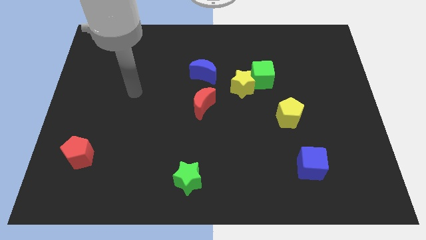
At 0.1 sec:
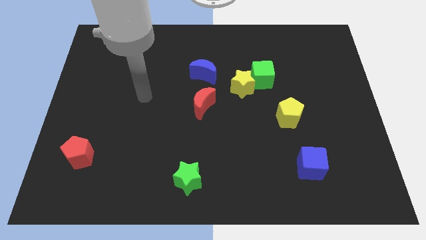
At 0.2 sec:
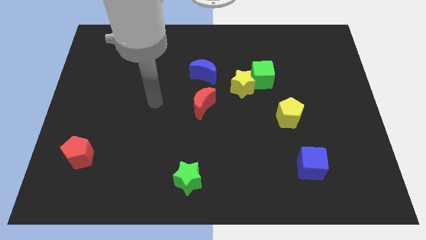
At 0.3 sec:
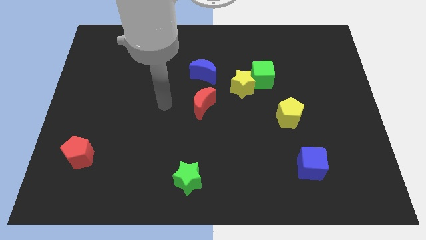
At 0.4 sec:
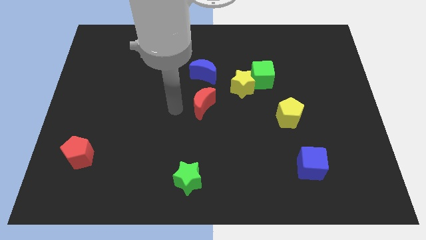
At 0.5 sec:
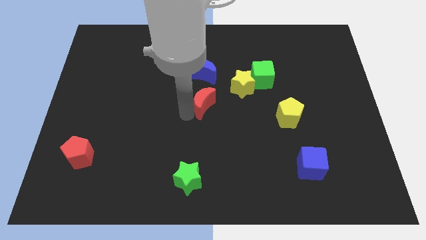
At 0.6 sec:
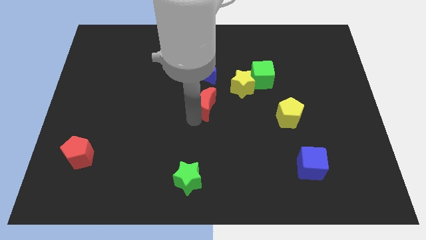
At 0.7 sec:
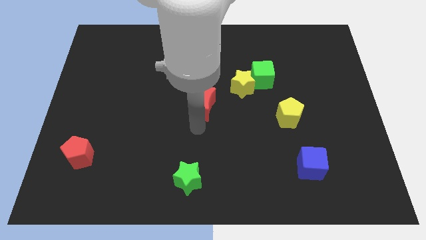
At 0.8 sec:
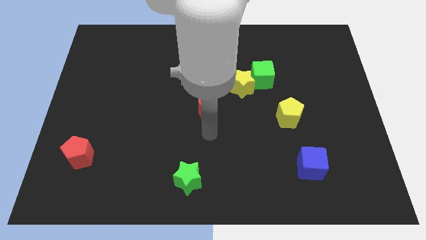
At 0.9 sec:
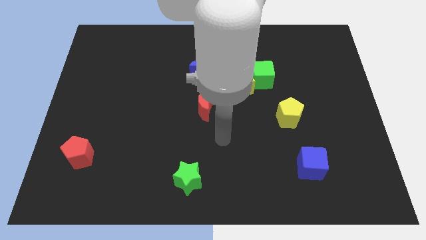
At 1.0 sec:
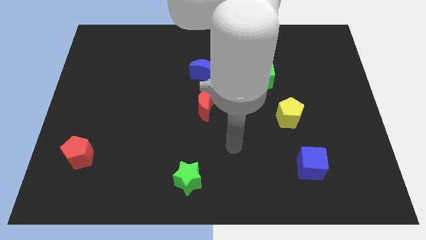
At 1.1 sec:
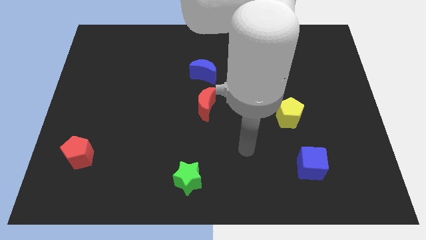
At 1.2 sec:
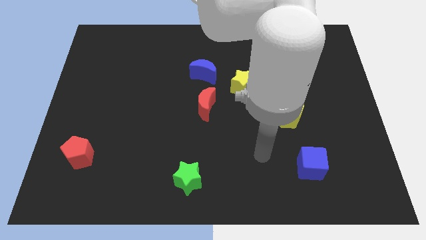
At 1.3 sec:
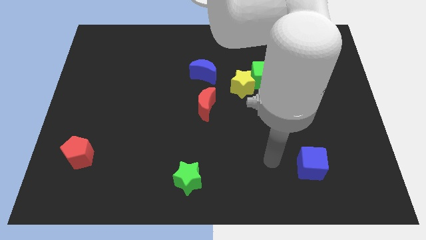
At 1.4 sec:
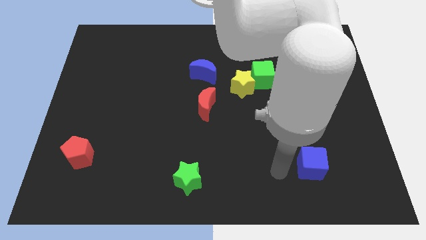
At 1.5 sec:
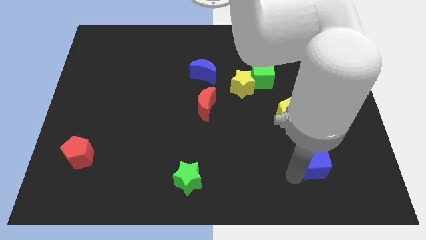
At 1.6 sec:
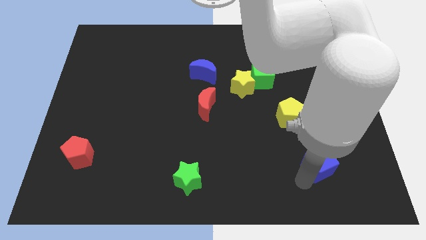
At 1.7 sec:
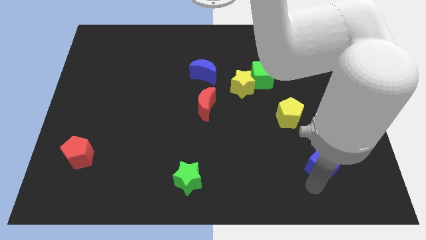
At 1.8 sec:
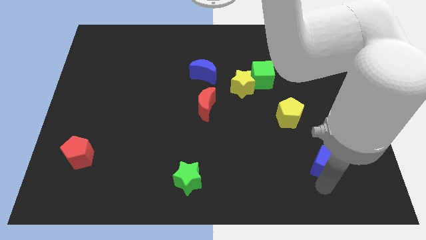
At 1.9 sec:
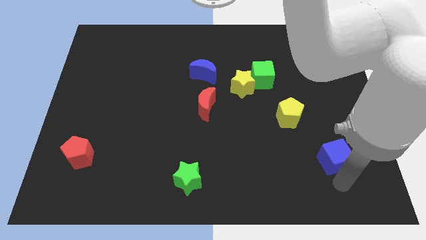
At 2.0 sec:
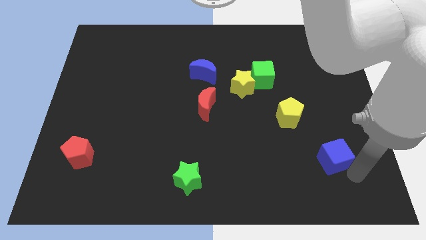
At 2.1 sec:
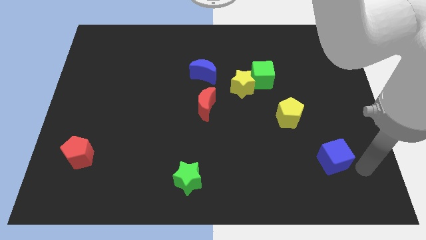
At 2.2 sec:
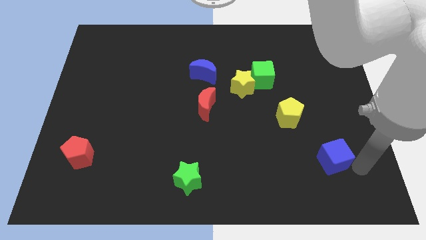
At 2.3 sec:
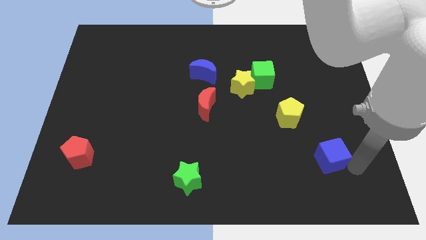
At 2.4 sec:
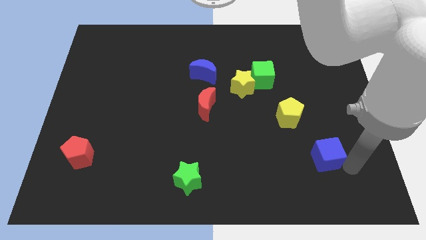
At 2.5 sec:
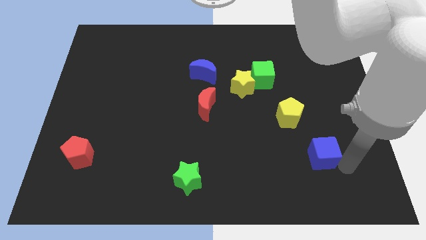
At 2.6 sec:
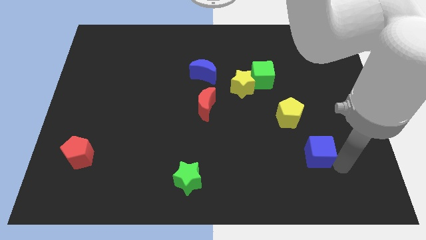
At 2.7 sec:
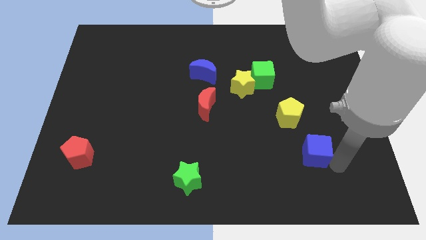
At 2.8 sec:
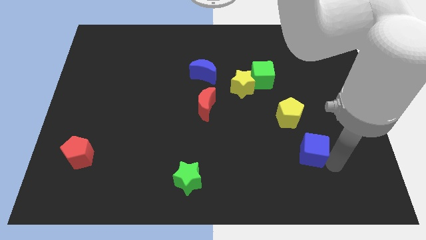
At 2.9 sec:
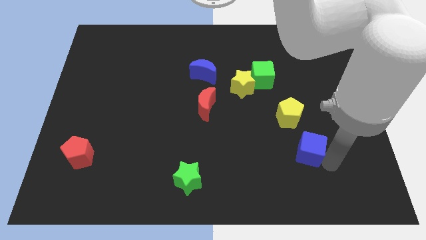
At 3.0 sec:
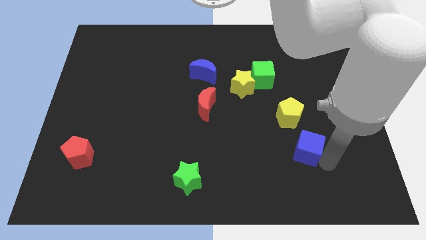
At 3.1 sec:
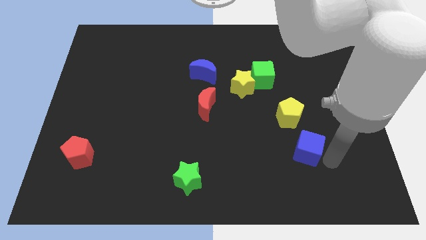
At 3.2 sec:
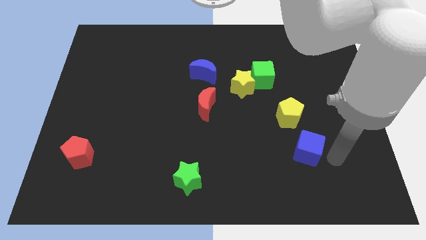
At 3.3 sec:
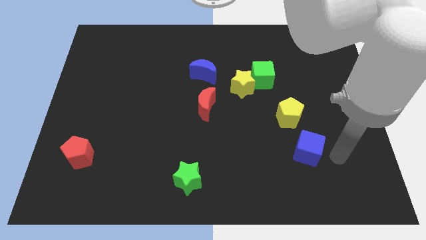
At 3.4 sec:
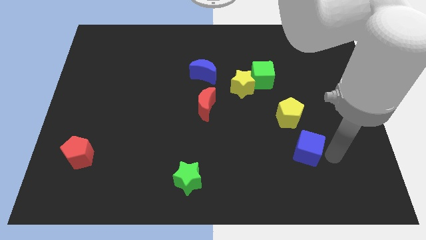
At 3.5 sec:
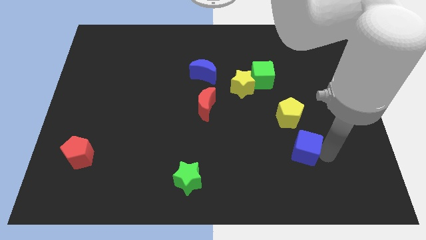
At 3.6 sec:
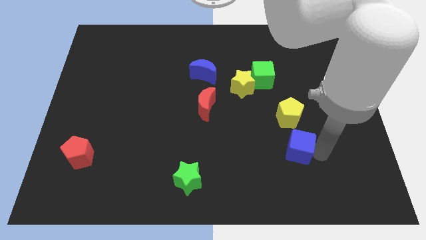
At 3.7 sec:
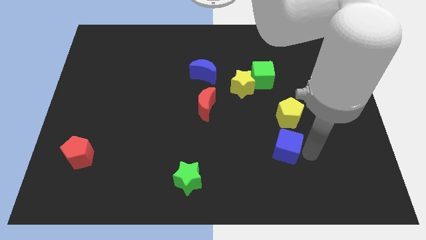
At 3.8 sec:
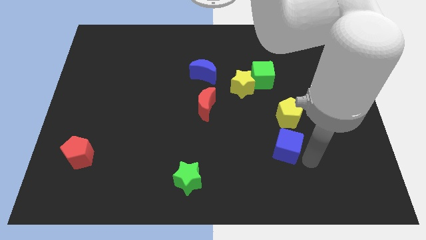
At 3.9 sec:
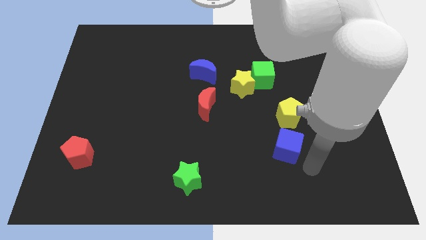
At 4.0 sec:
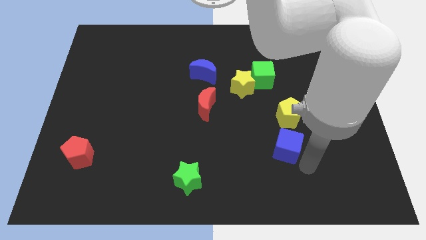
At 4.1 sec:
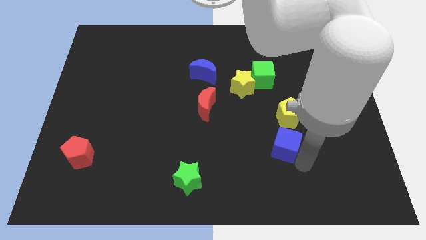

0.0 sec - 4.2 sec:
push the blue cube slightly upwards and left diagonally

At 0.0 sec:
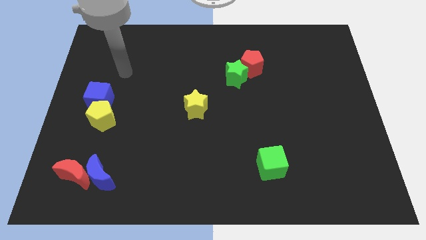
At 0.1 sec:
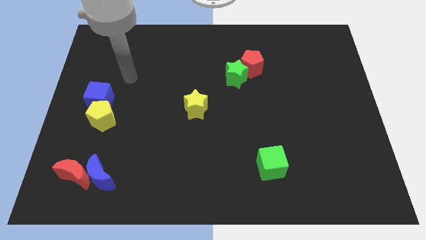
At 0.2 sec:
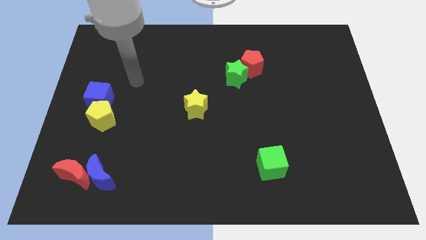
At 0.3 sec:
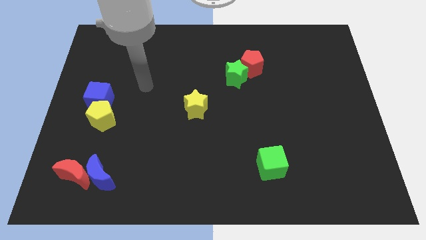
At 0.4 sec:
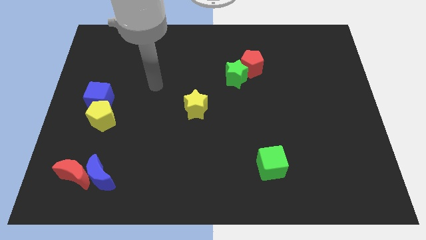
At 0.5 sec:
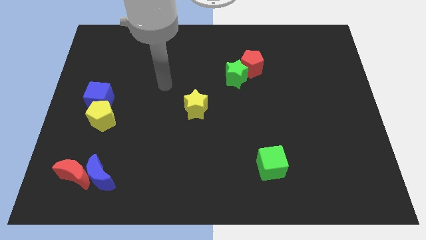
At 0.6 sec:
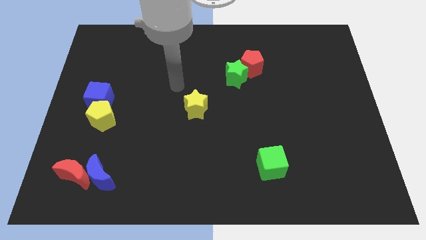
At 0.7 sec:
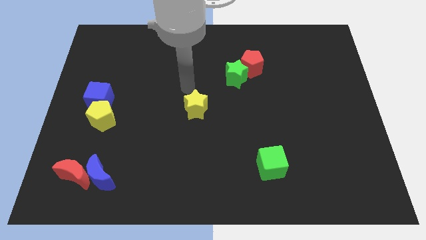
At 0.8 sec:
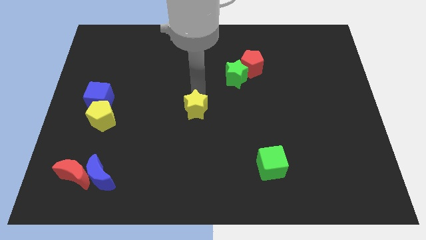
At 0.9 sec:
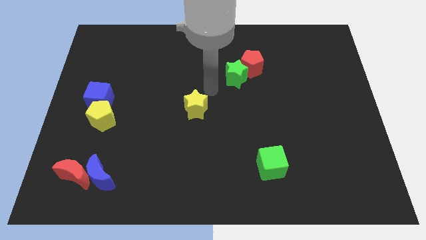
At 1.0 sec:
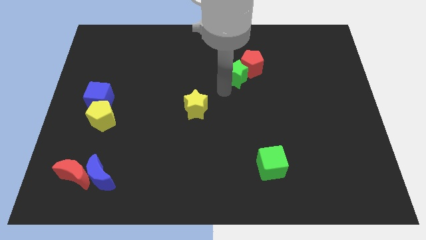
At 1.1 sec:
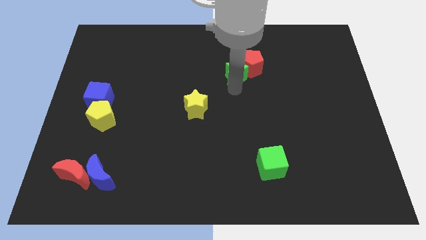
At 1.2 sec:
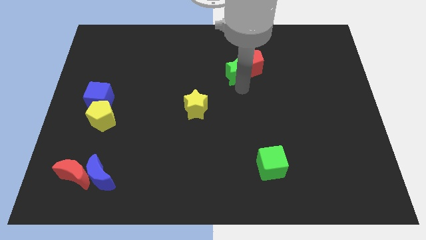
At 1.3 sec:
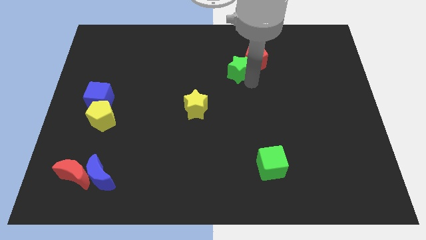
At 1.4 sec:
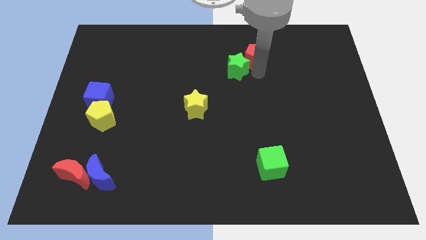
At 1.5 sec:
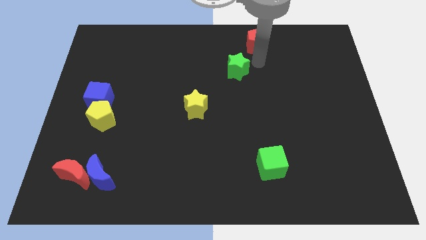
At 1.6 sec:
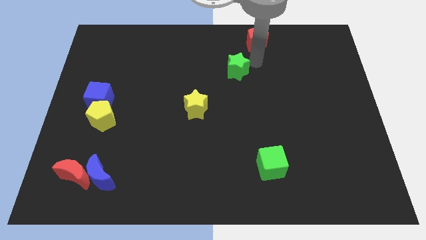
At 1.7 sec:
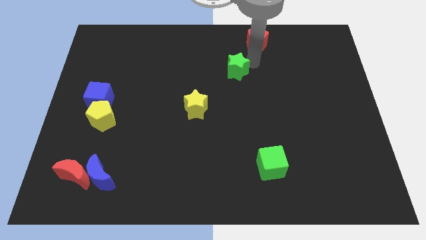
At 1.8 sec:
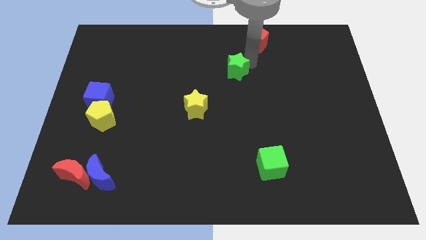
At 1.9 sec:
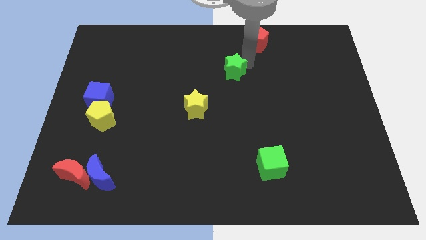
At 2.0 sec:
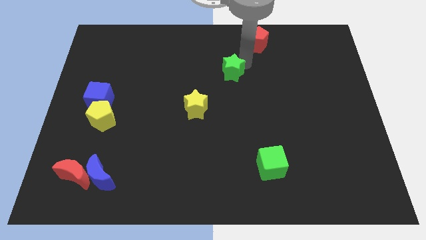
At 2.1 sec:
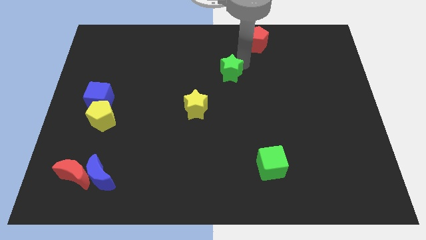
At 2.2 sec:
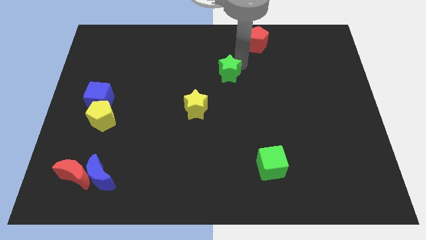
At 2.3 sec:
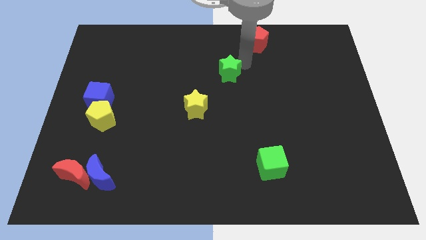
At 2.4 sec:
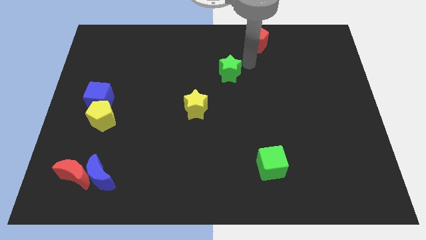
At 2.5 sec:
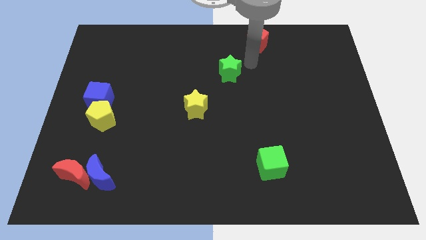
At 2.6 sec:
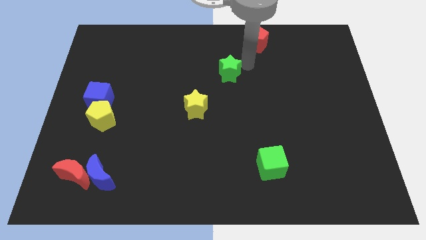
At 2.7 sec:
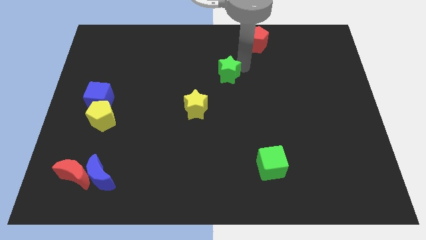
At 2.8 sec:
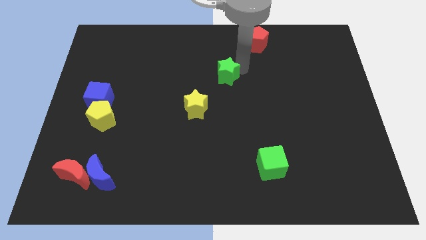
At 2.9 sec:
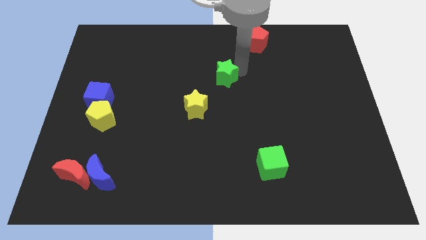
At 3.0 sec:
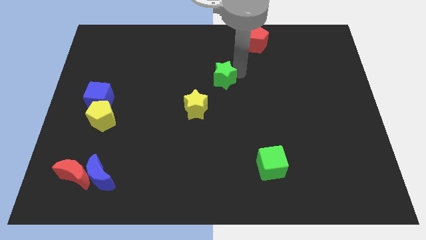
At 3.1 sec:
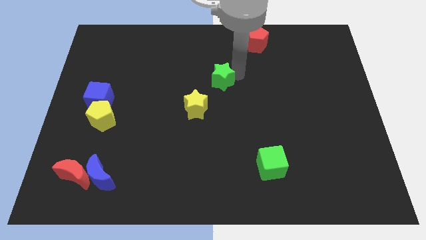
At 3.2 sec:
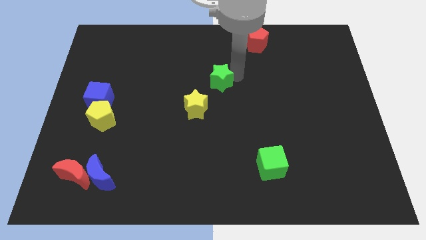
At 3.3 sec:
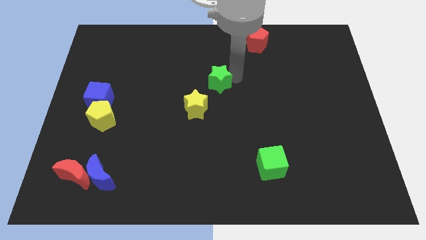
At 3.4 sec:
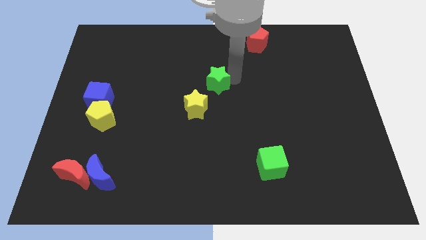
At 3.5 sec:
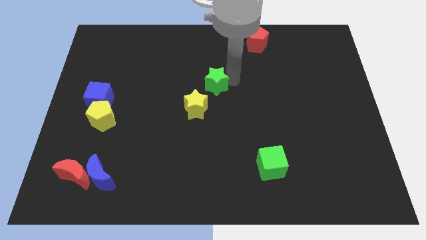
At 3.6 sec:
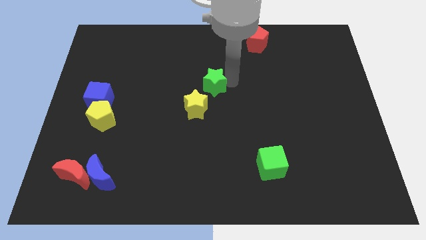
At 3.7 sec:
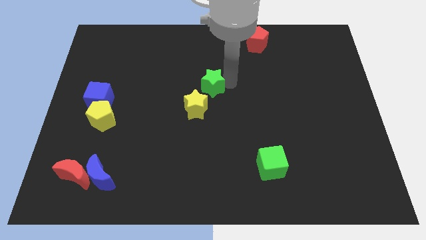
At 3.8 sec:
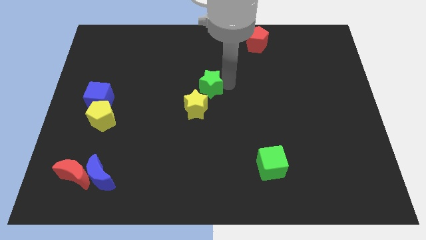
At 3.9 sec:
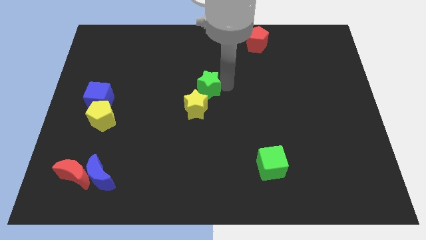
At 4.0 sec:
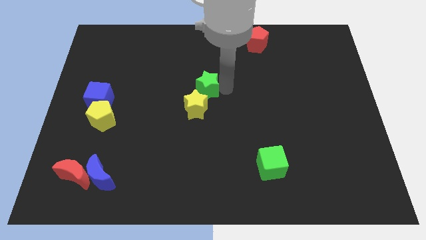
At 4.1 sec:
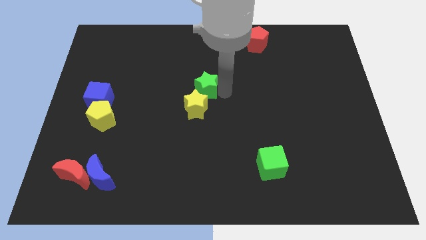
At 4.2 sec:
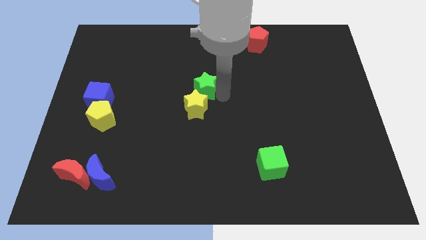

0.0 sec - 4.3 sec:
slightly move the green star left
